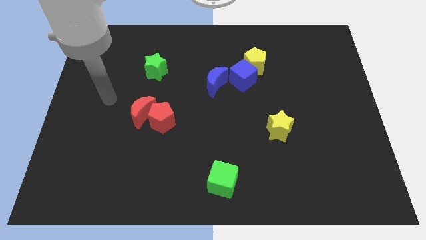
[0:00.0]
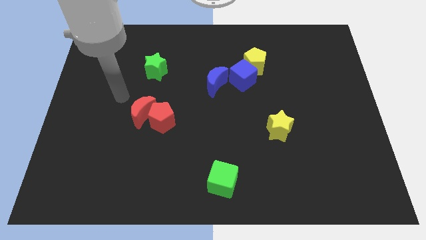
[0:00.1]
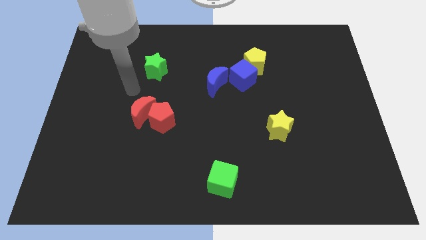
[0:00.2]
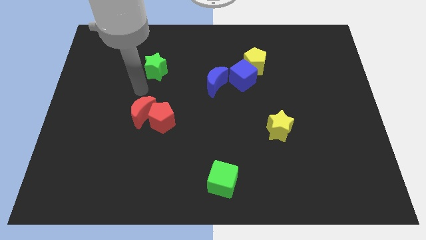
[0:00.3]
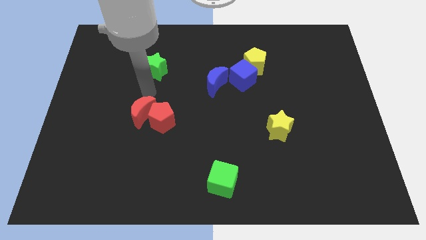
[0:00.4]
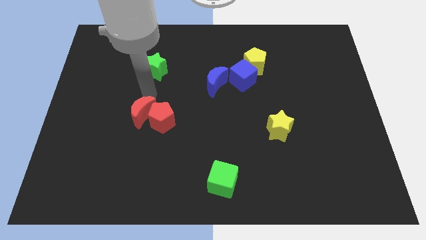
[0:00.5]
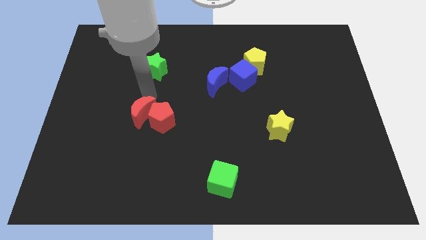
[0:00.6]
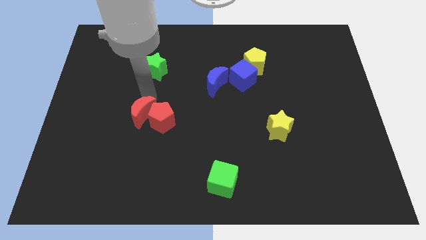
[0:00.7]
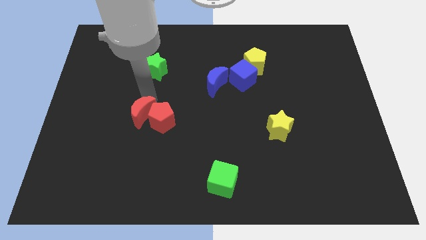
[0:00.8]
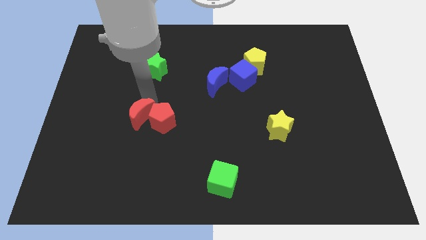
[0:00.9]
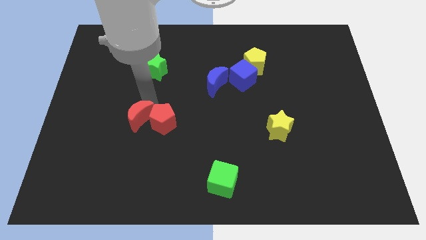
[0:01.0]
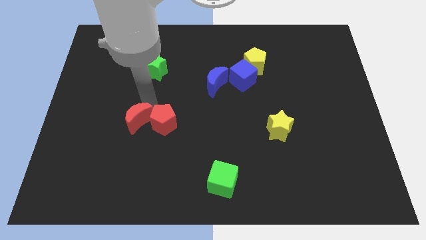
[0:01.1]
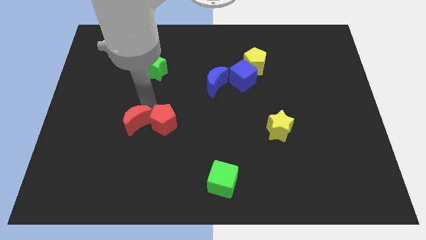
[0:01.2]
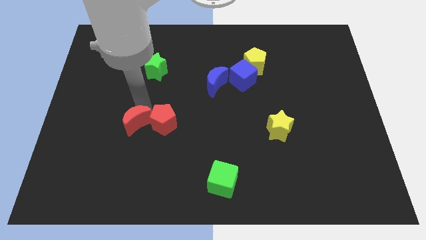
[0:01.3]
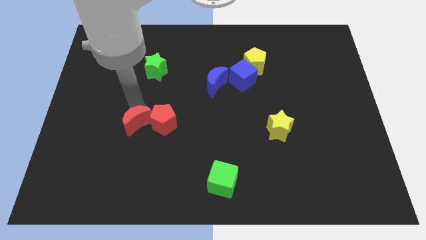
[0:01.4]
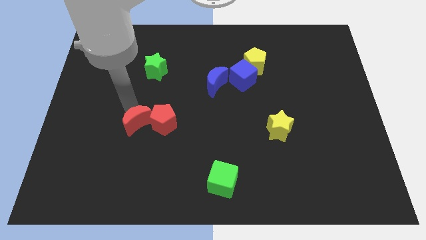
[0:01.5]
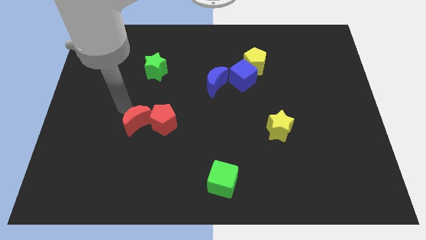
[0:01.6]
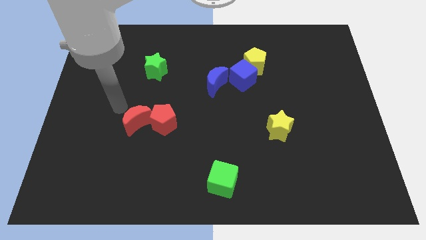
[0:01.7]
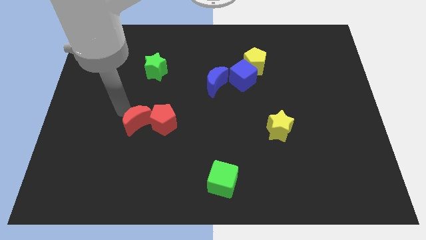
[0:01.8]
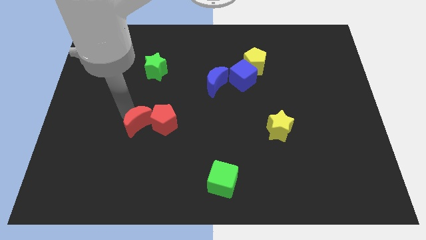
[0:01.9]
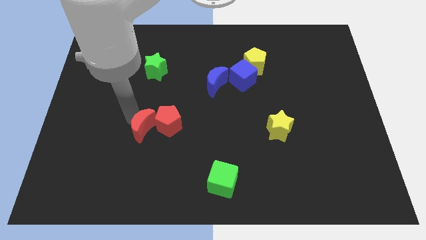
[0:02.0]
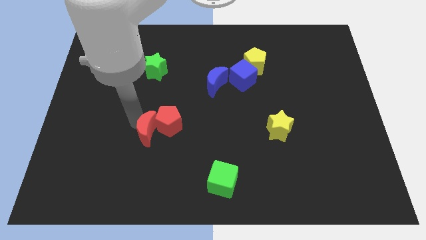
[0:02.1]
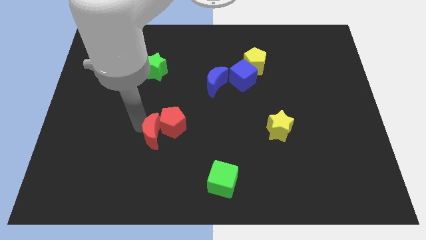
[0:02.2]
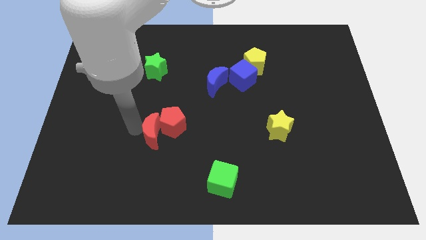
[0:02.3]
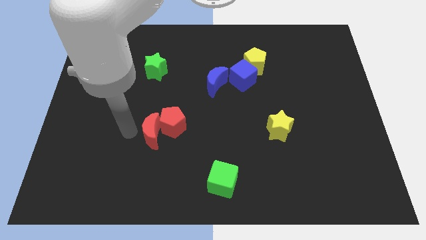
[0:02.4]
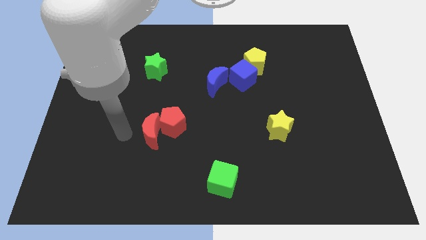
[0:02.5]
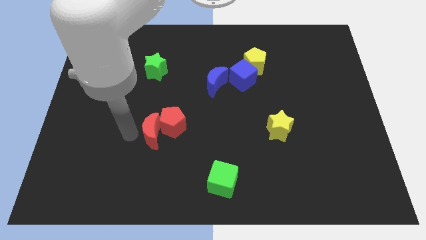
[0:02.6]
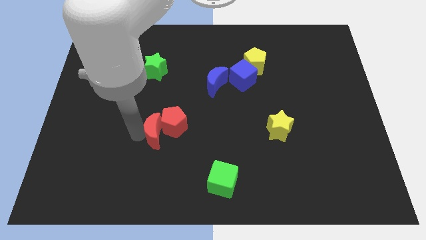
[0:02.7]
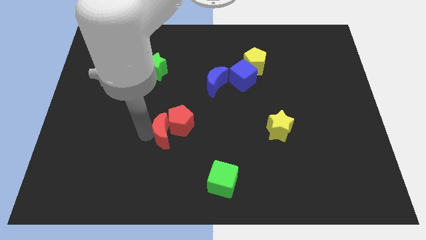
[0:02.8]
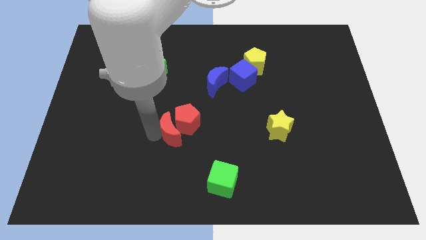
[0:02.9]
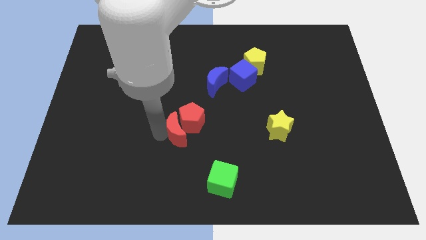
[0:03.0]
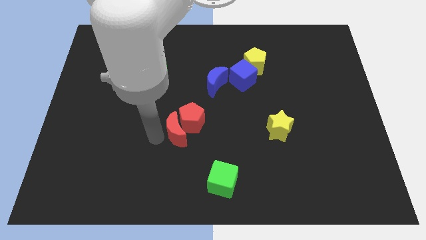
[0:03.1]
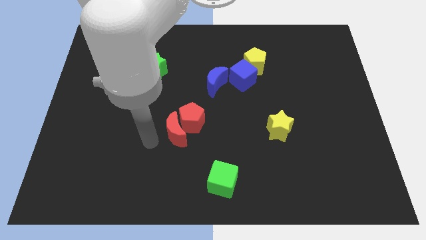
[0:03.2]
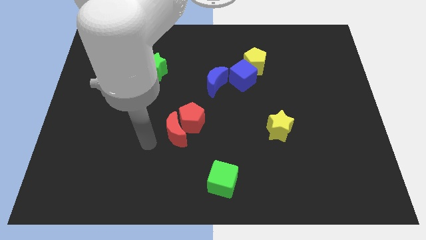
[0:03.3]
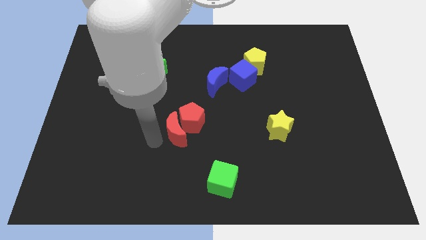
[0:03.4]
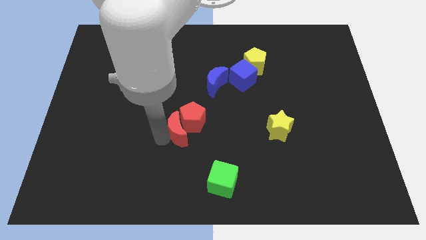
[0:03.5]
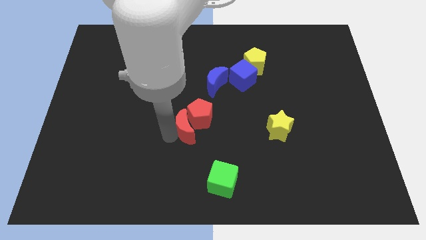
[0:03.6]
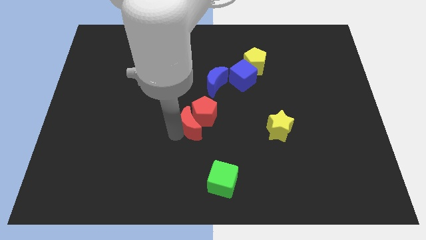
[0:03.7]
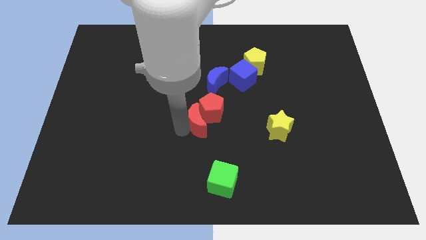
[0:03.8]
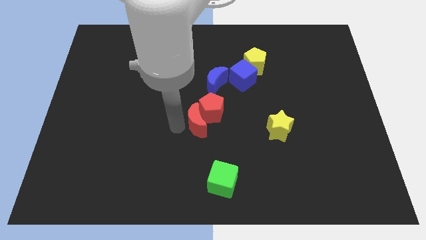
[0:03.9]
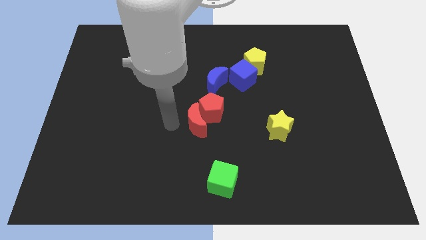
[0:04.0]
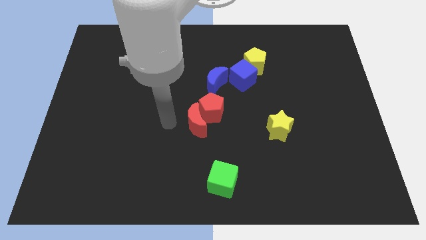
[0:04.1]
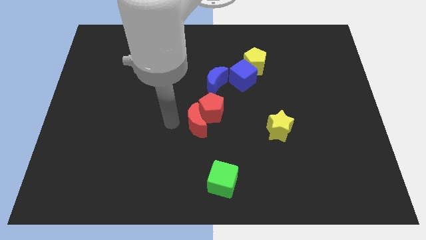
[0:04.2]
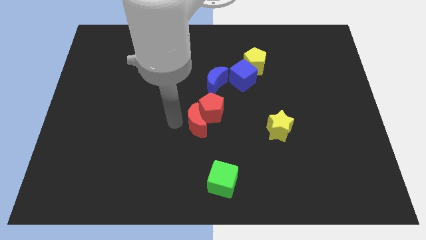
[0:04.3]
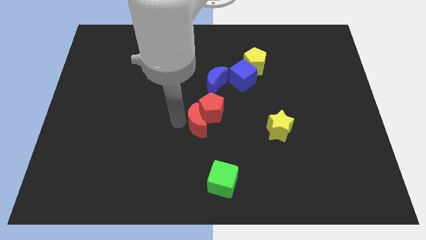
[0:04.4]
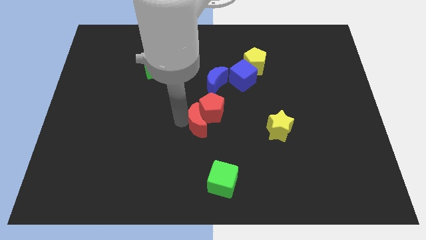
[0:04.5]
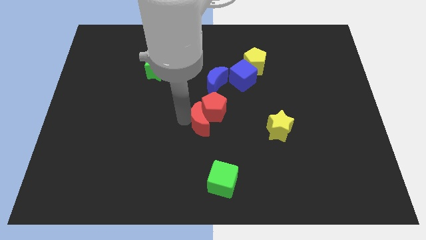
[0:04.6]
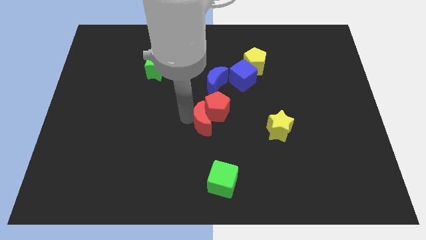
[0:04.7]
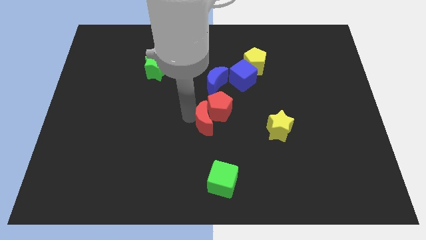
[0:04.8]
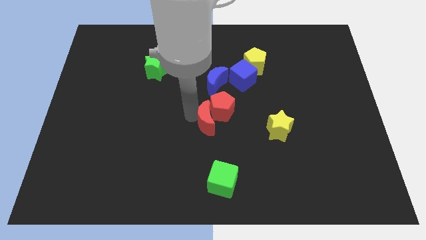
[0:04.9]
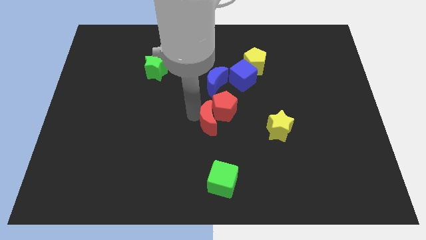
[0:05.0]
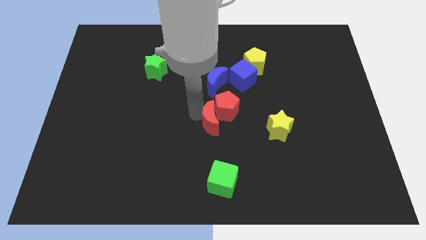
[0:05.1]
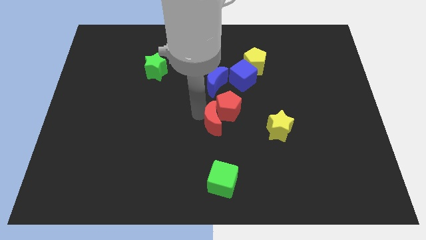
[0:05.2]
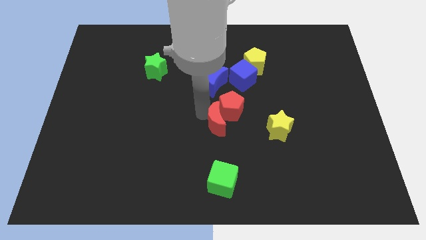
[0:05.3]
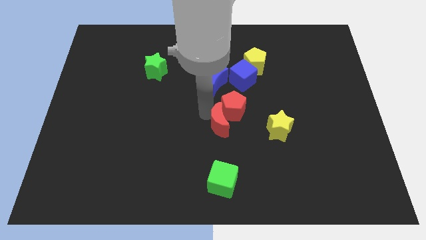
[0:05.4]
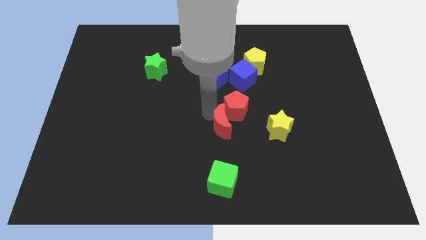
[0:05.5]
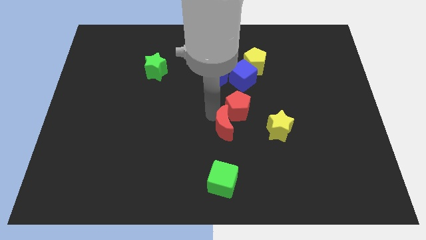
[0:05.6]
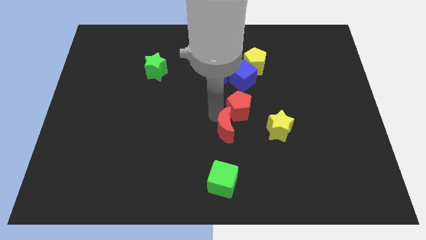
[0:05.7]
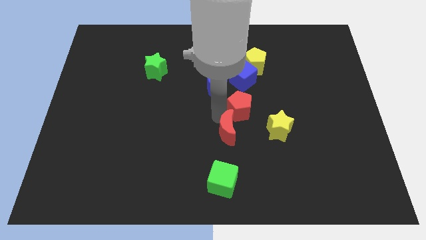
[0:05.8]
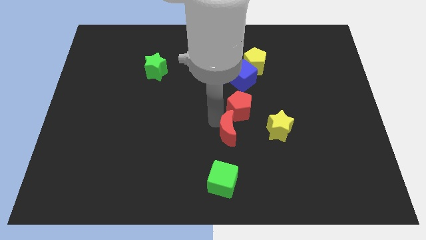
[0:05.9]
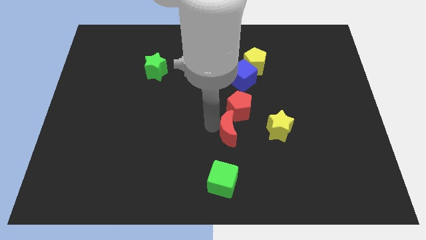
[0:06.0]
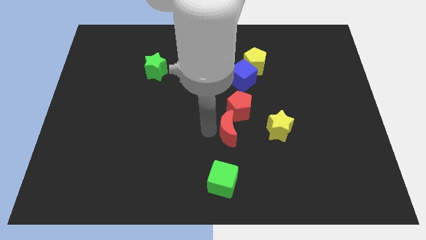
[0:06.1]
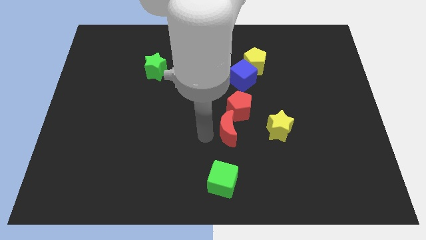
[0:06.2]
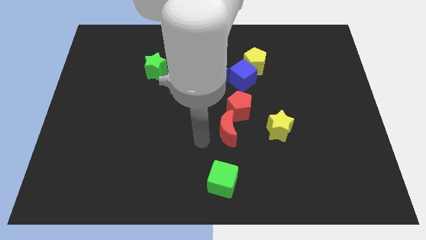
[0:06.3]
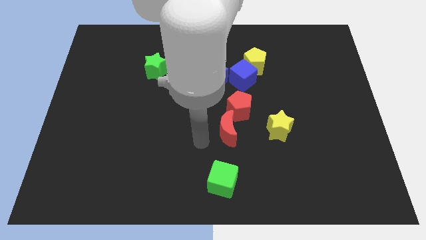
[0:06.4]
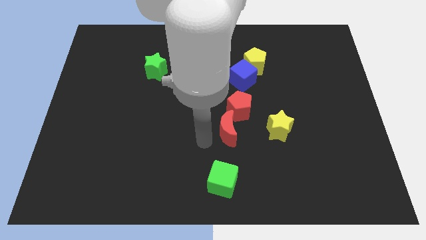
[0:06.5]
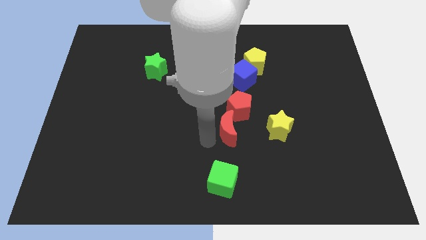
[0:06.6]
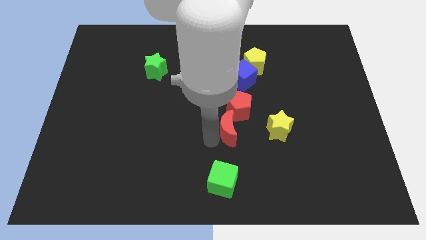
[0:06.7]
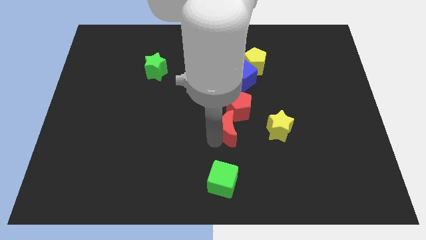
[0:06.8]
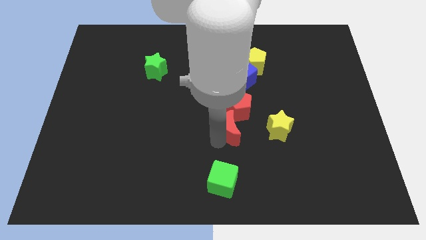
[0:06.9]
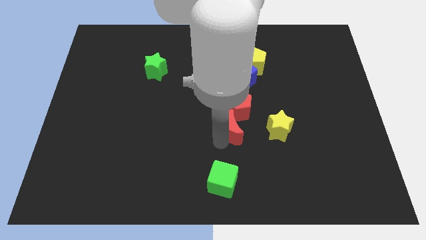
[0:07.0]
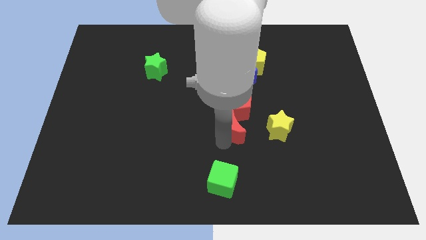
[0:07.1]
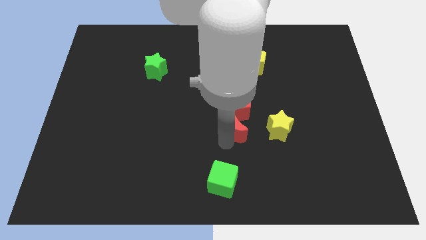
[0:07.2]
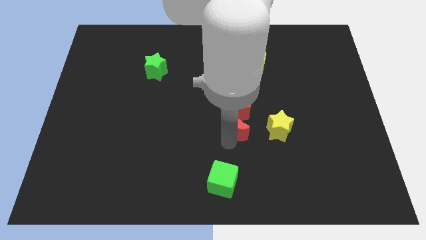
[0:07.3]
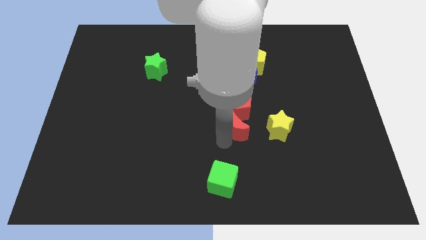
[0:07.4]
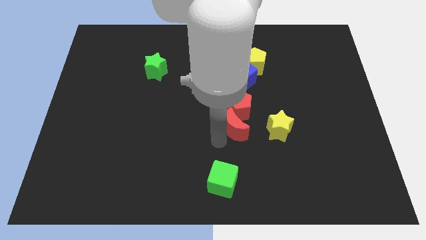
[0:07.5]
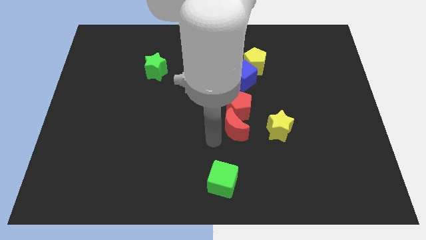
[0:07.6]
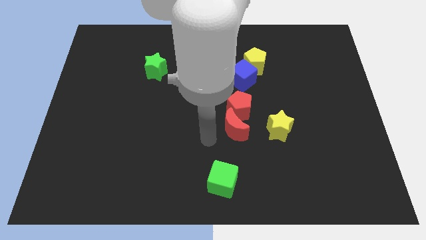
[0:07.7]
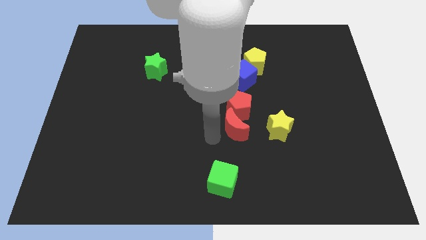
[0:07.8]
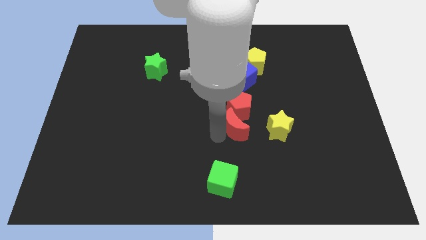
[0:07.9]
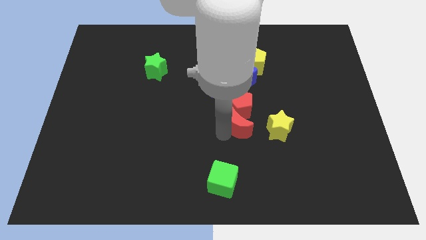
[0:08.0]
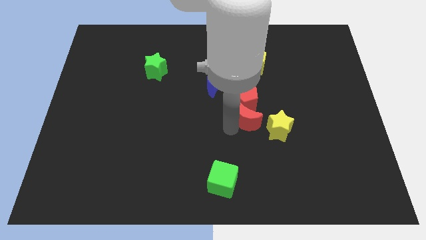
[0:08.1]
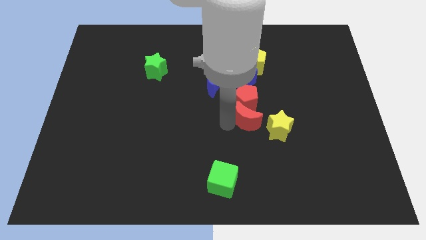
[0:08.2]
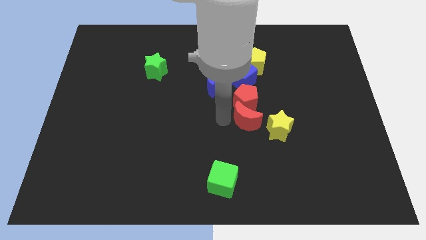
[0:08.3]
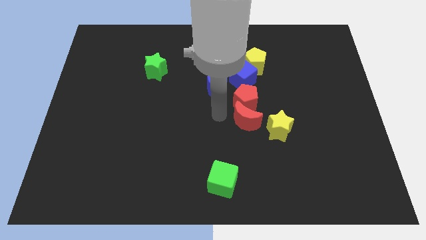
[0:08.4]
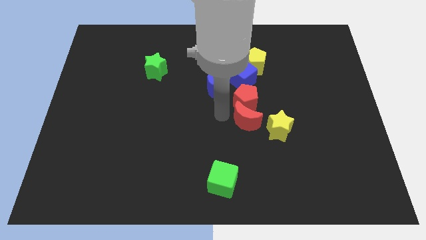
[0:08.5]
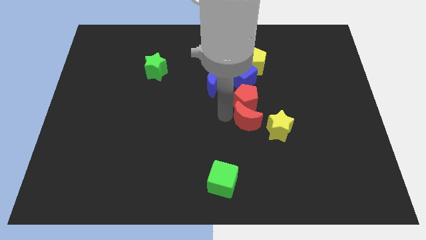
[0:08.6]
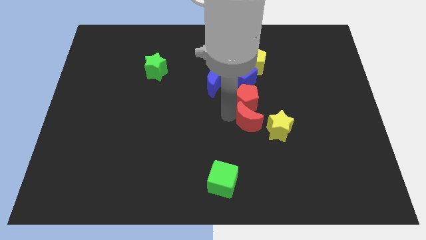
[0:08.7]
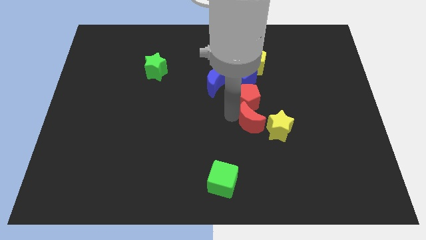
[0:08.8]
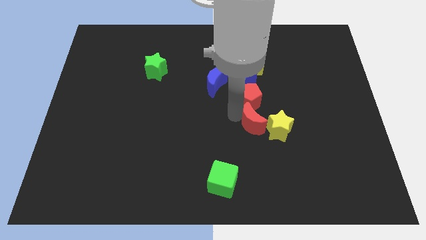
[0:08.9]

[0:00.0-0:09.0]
slide the red moon towards the yellow star
